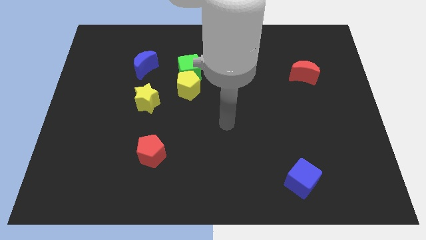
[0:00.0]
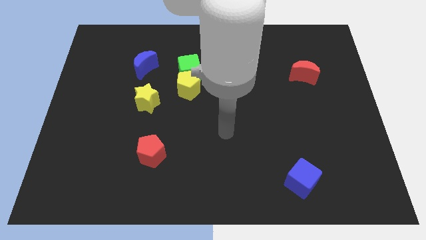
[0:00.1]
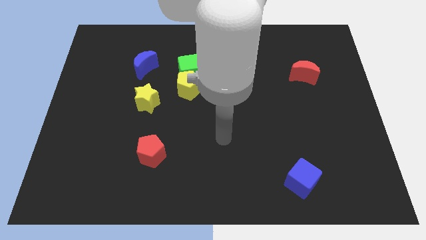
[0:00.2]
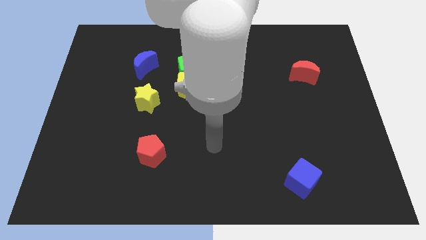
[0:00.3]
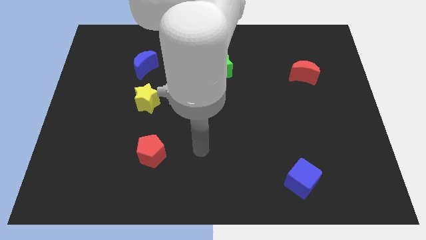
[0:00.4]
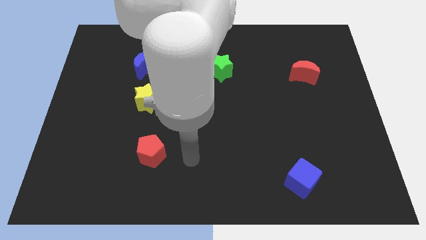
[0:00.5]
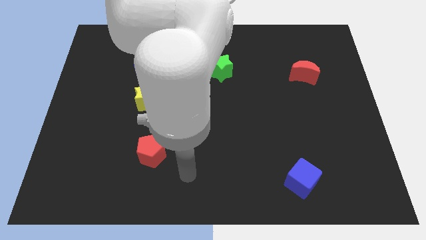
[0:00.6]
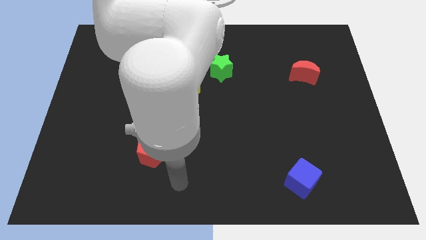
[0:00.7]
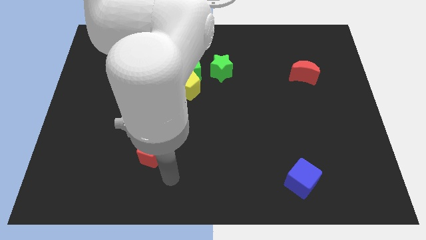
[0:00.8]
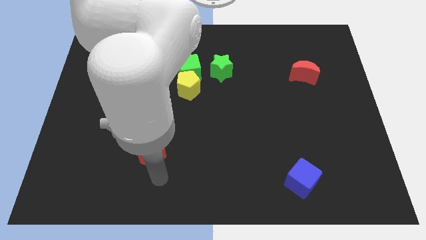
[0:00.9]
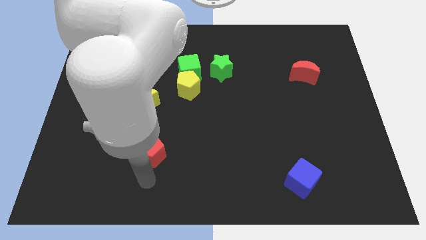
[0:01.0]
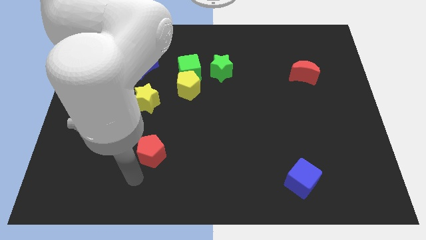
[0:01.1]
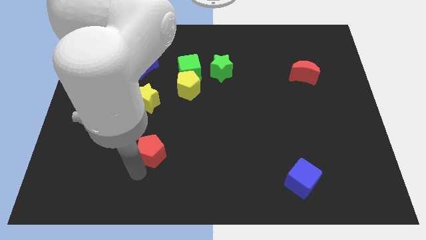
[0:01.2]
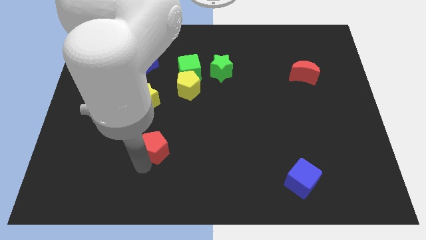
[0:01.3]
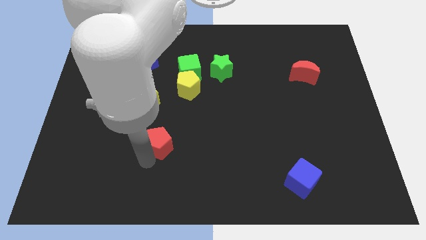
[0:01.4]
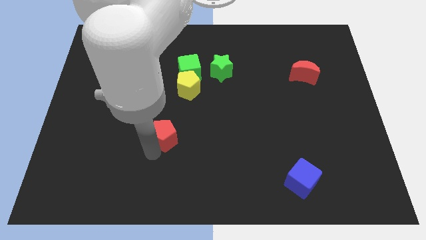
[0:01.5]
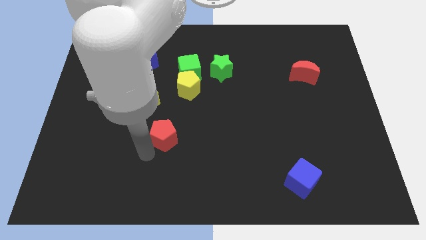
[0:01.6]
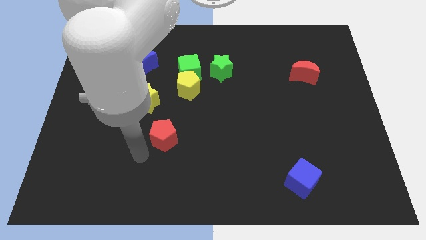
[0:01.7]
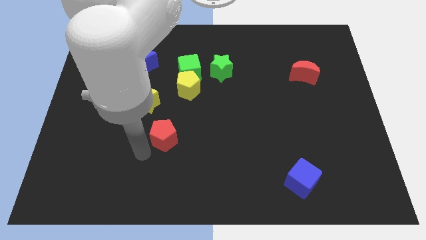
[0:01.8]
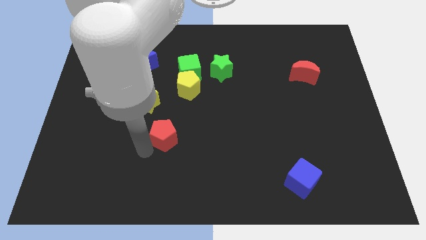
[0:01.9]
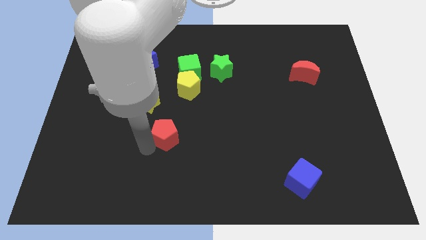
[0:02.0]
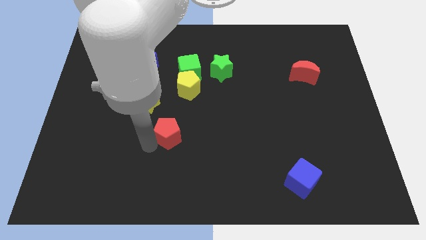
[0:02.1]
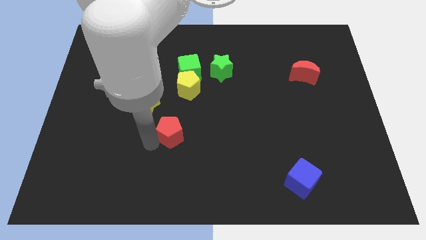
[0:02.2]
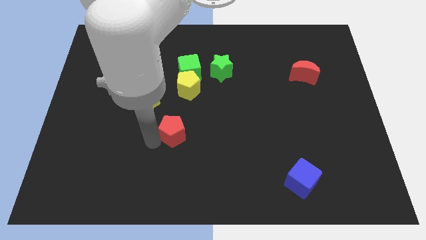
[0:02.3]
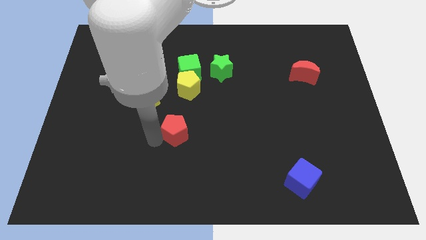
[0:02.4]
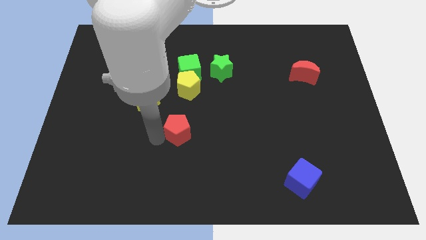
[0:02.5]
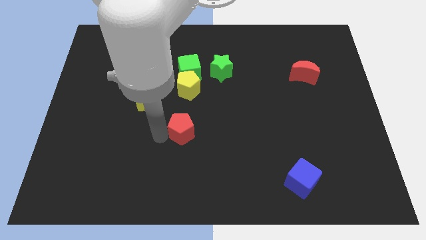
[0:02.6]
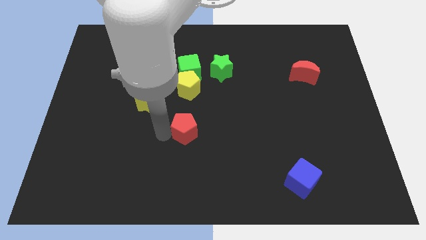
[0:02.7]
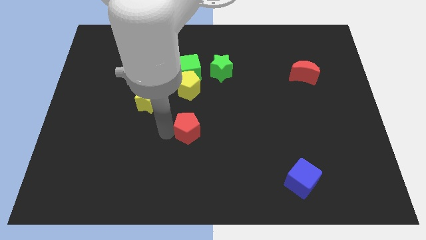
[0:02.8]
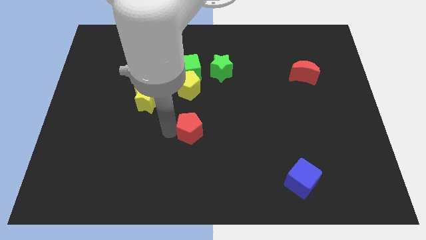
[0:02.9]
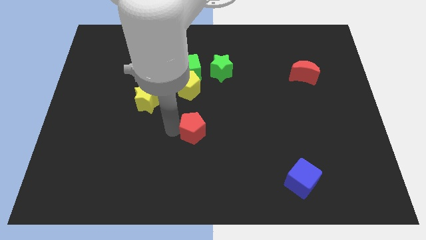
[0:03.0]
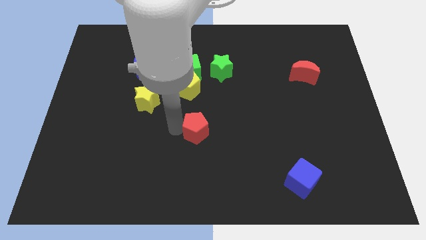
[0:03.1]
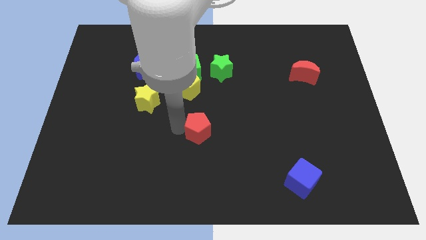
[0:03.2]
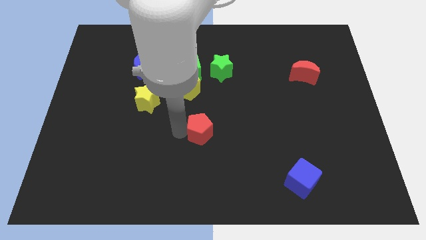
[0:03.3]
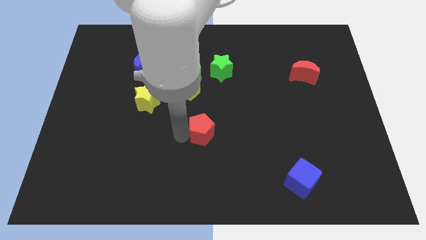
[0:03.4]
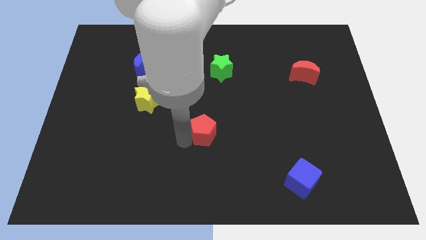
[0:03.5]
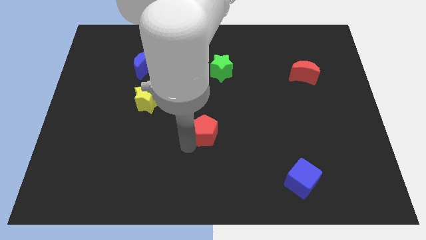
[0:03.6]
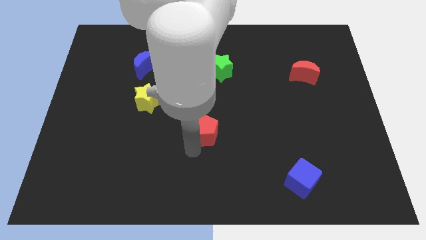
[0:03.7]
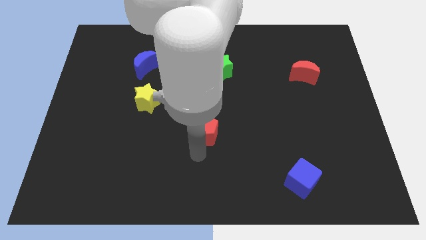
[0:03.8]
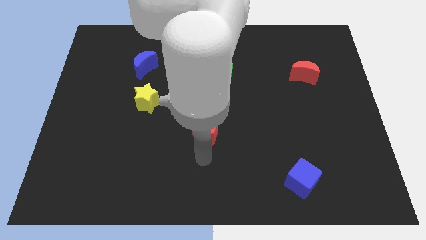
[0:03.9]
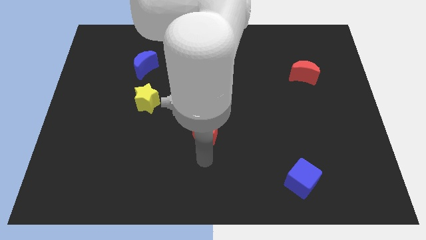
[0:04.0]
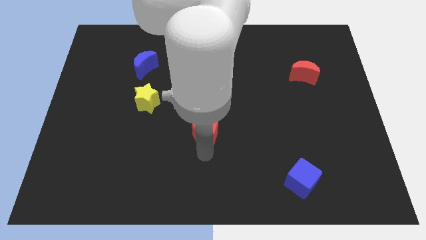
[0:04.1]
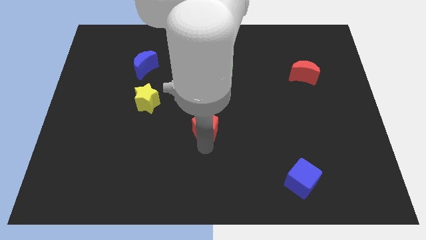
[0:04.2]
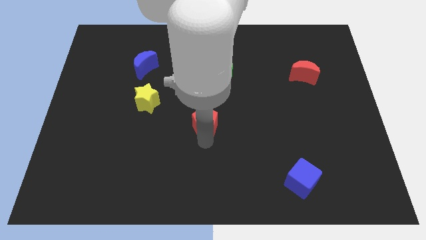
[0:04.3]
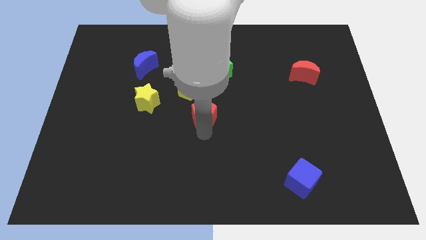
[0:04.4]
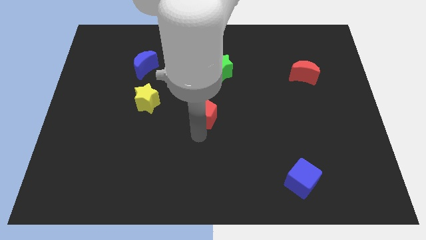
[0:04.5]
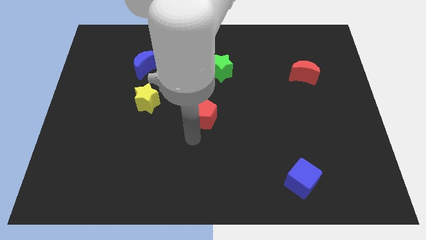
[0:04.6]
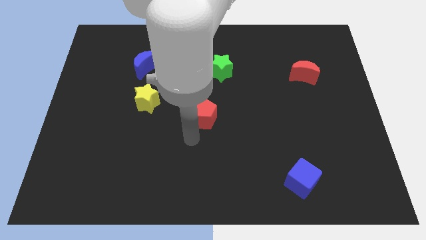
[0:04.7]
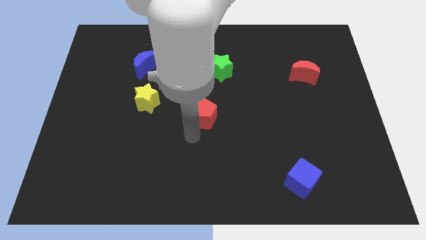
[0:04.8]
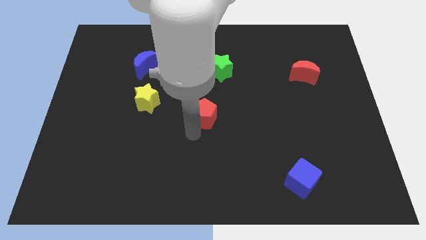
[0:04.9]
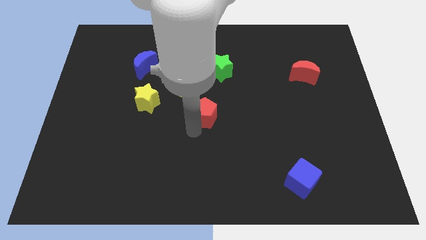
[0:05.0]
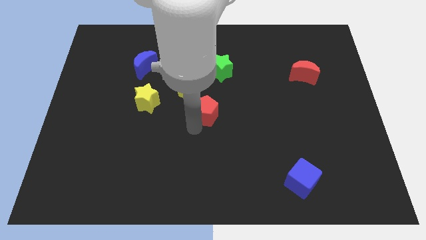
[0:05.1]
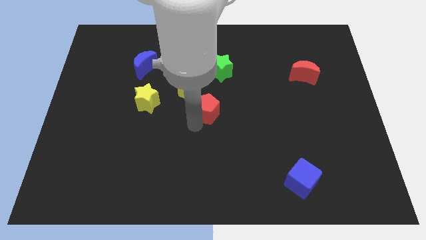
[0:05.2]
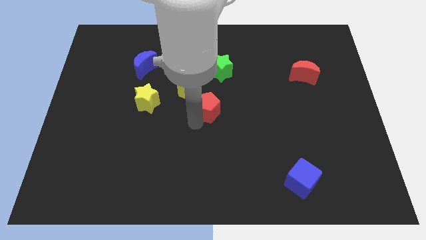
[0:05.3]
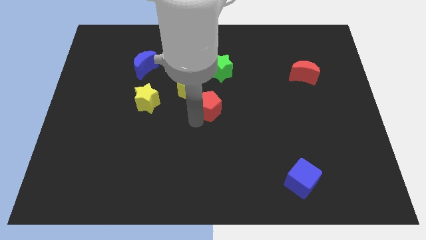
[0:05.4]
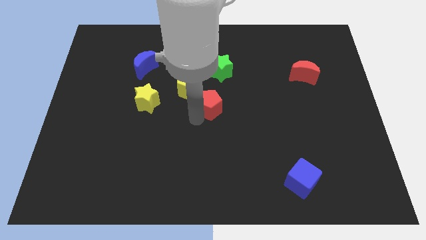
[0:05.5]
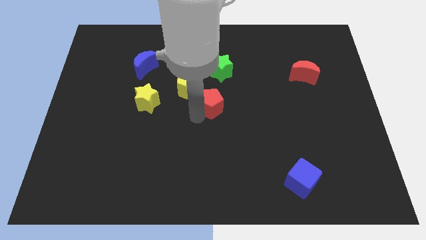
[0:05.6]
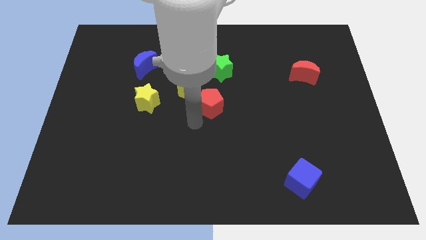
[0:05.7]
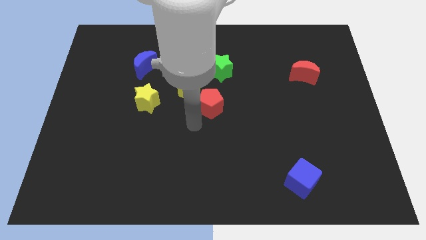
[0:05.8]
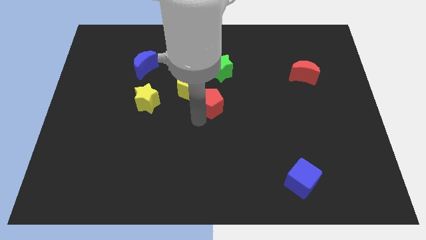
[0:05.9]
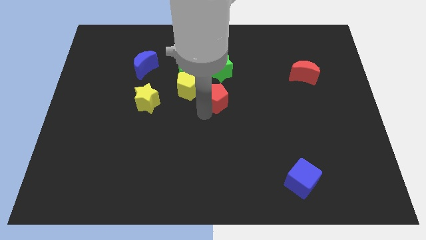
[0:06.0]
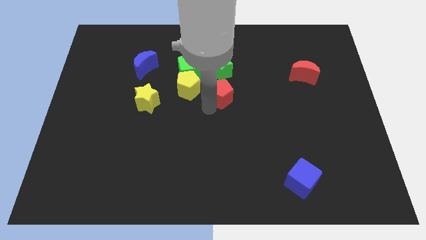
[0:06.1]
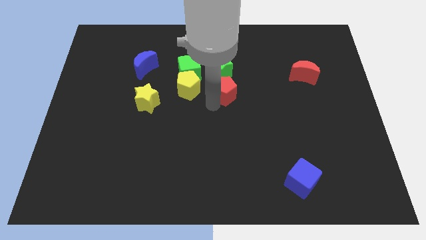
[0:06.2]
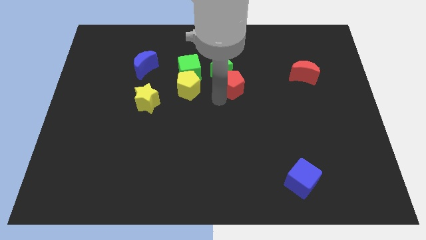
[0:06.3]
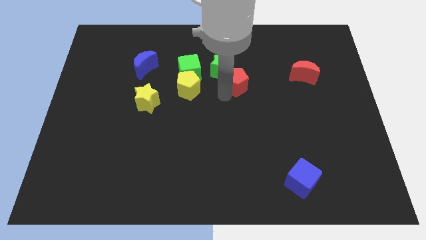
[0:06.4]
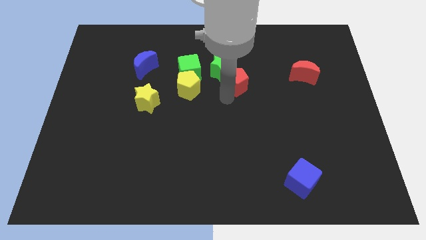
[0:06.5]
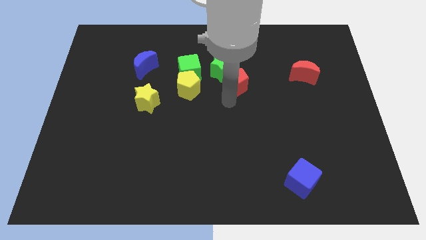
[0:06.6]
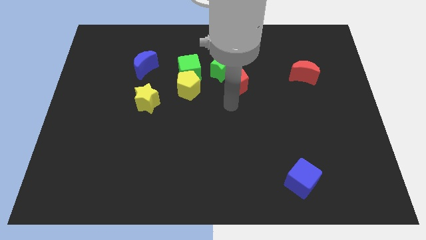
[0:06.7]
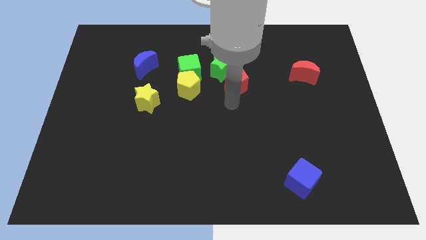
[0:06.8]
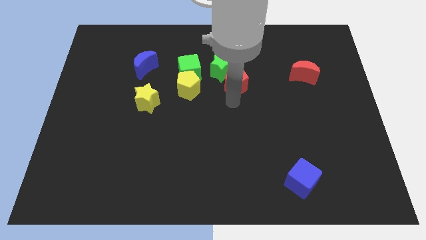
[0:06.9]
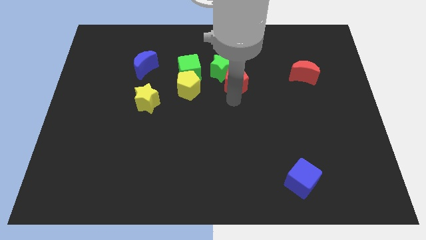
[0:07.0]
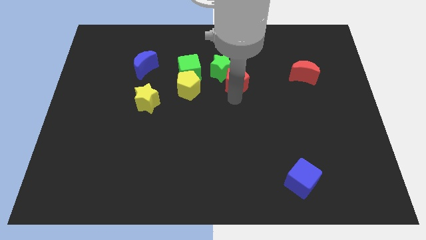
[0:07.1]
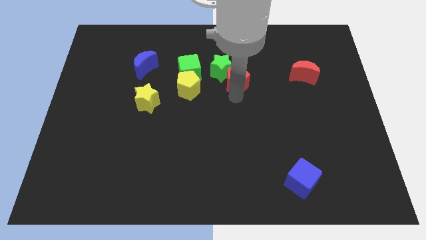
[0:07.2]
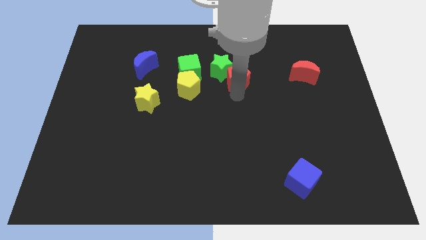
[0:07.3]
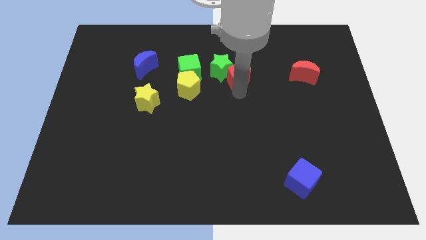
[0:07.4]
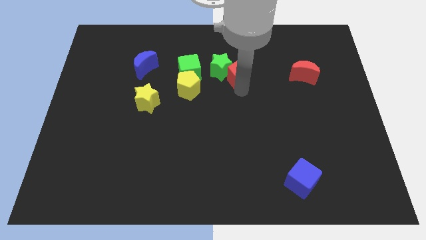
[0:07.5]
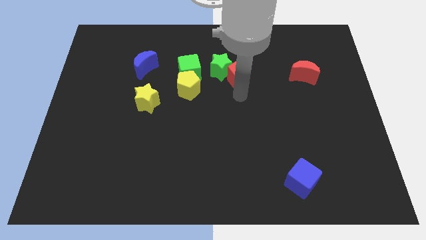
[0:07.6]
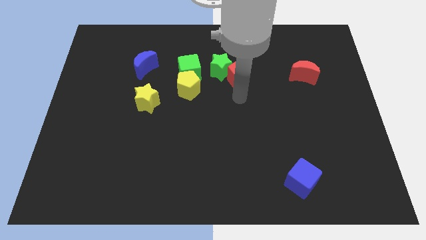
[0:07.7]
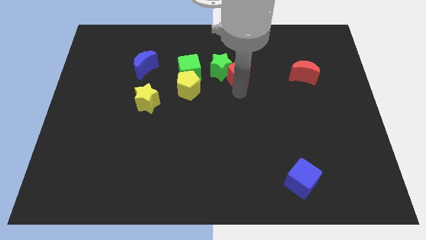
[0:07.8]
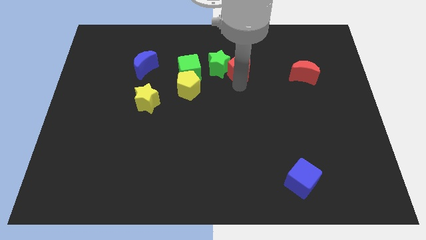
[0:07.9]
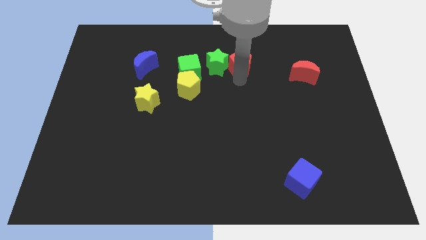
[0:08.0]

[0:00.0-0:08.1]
slide the red pentagon diagonally up and to the right of the green star
